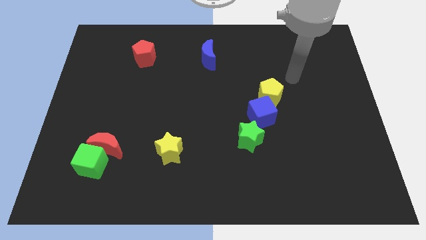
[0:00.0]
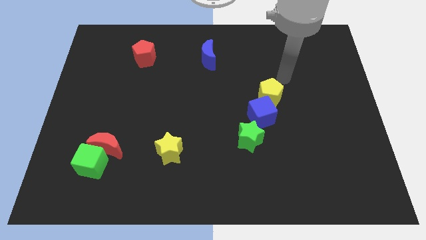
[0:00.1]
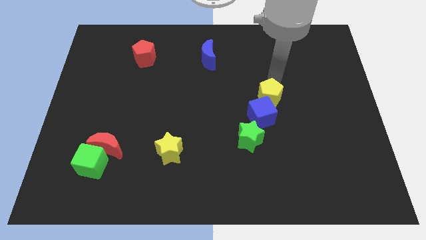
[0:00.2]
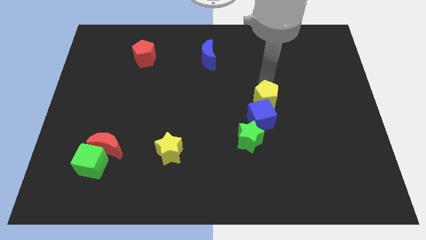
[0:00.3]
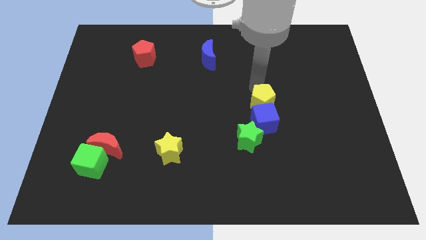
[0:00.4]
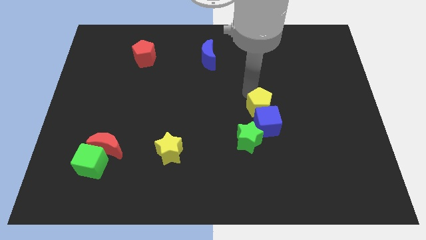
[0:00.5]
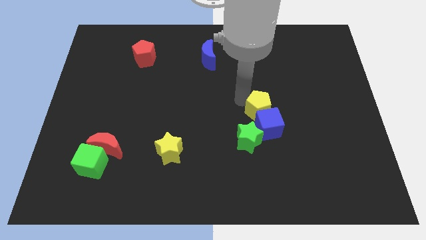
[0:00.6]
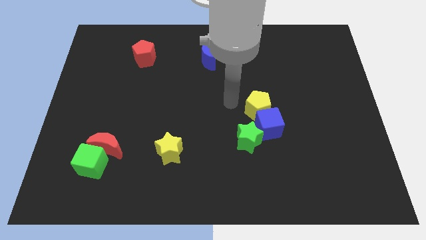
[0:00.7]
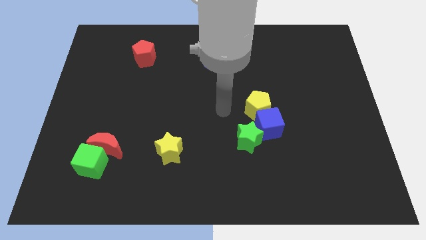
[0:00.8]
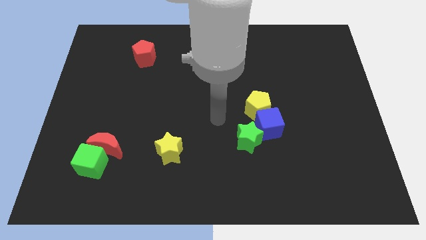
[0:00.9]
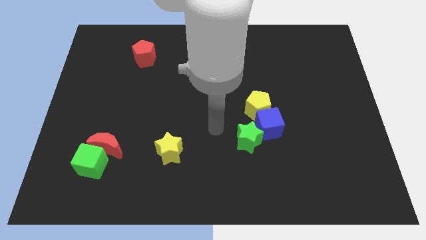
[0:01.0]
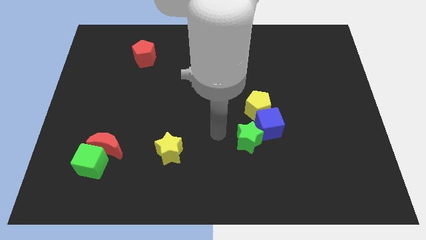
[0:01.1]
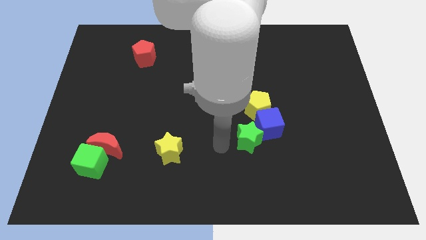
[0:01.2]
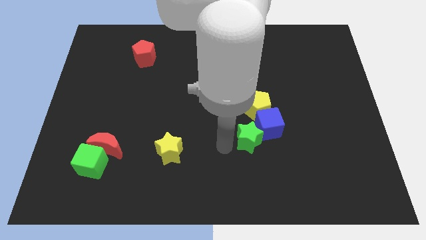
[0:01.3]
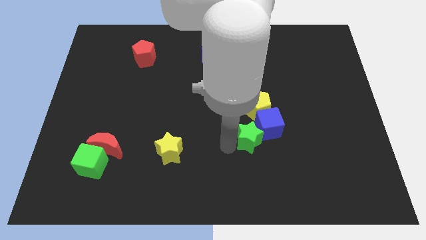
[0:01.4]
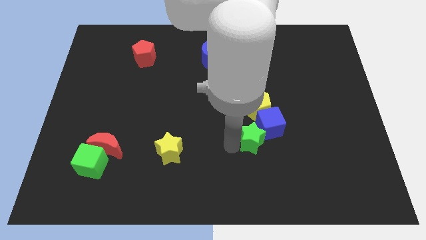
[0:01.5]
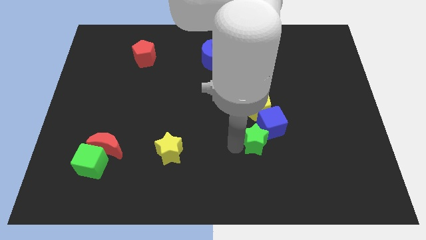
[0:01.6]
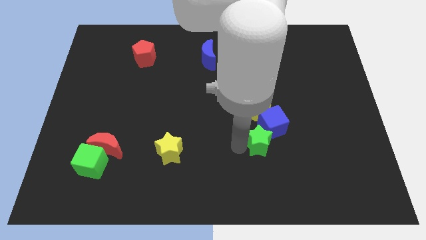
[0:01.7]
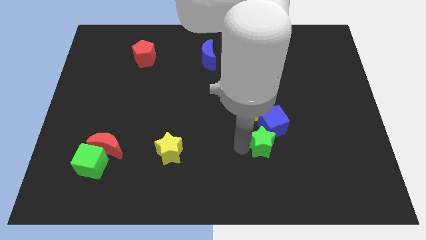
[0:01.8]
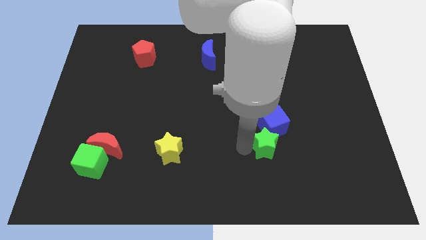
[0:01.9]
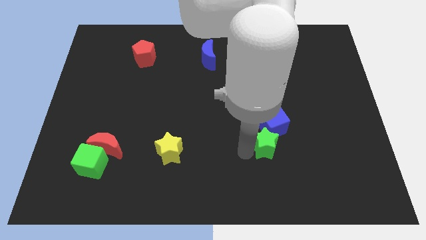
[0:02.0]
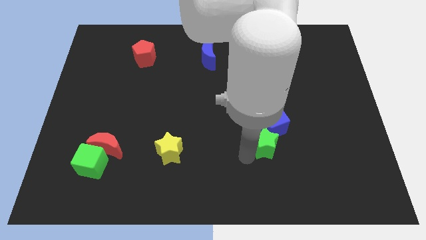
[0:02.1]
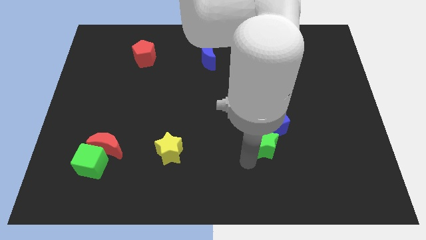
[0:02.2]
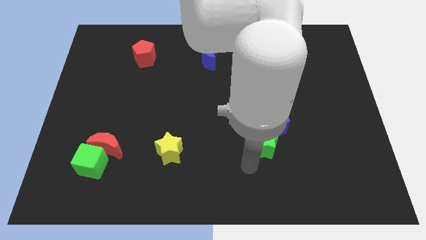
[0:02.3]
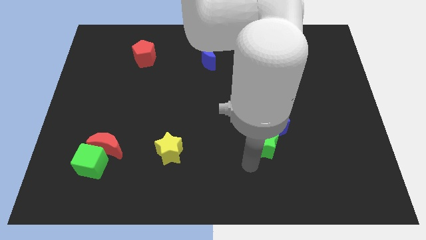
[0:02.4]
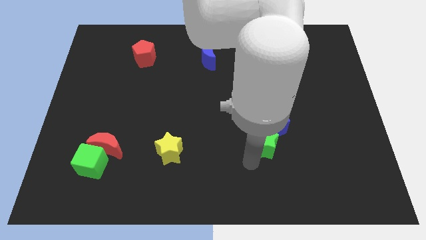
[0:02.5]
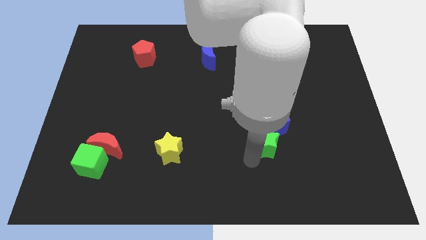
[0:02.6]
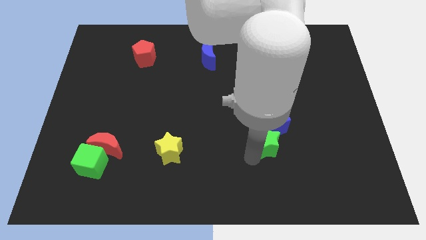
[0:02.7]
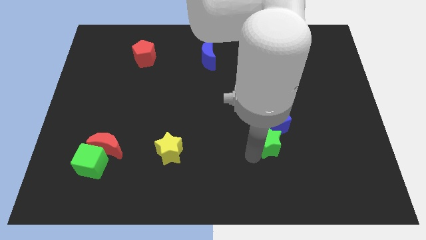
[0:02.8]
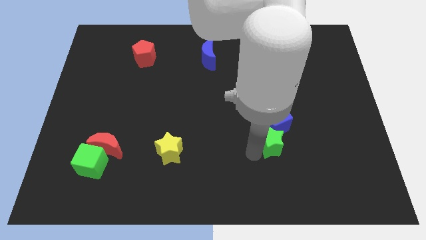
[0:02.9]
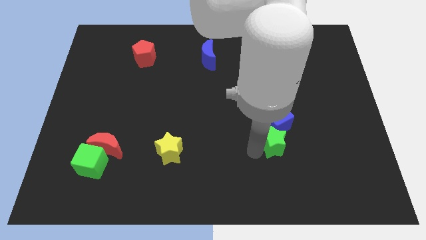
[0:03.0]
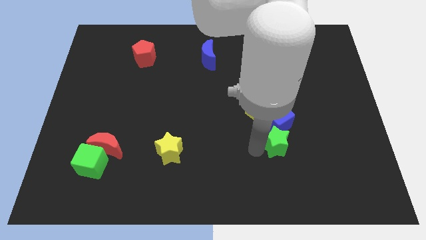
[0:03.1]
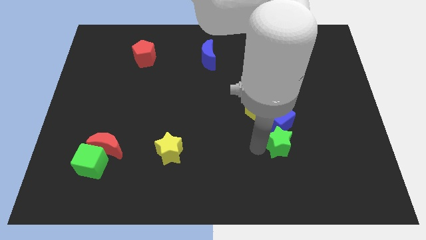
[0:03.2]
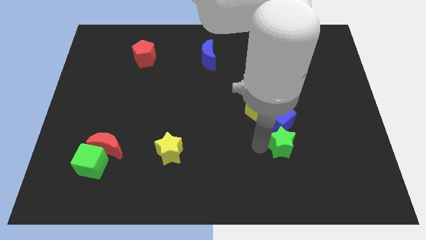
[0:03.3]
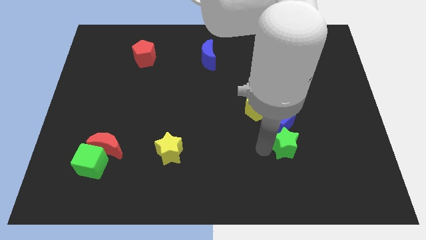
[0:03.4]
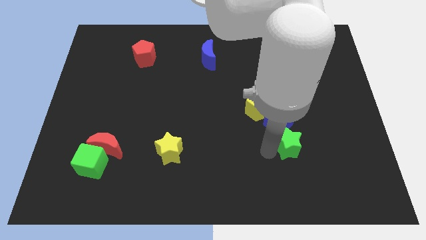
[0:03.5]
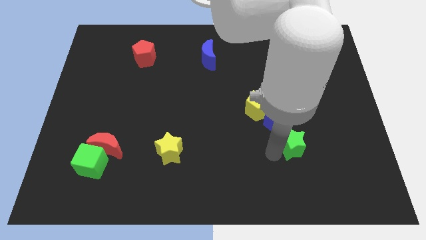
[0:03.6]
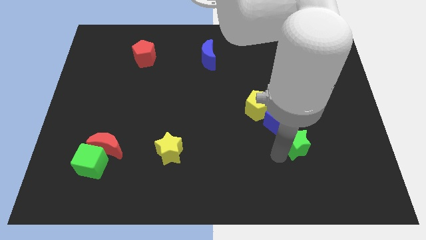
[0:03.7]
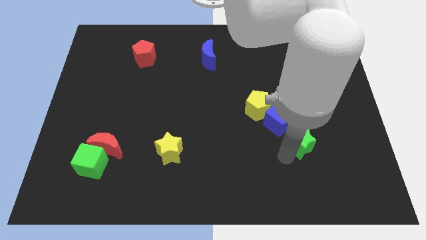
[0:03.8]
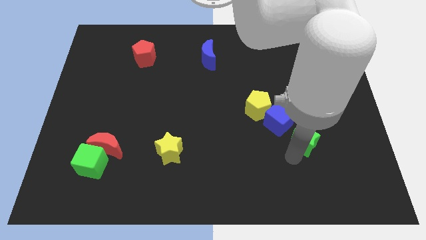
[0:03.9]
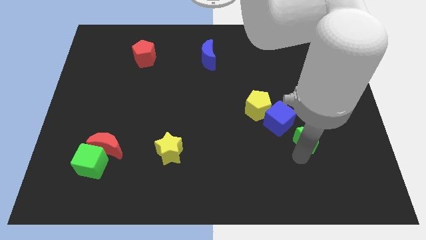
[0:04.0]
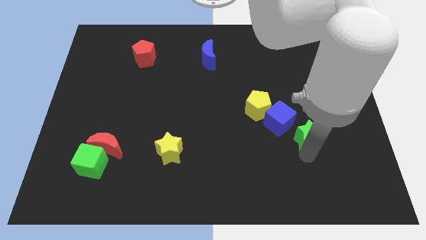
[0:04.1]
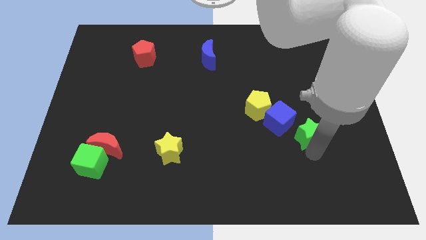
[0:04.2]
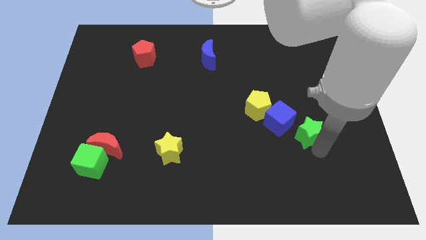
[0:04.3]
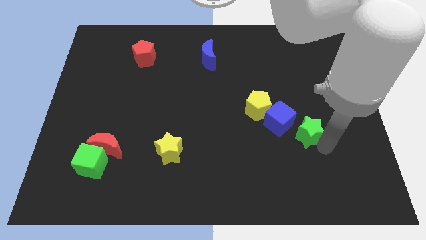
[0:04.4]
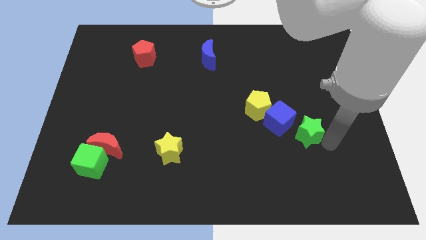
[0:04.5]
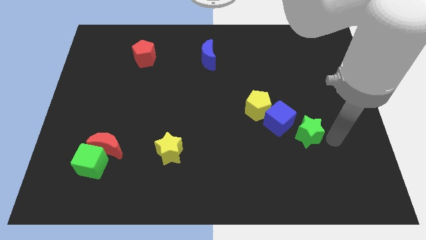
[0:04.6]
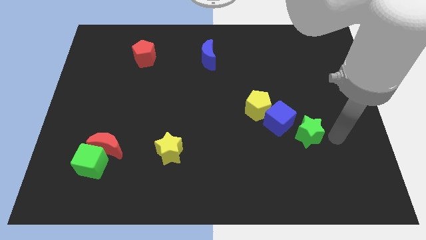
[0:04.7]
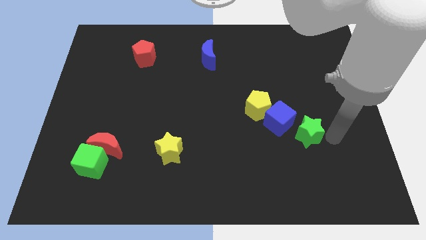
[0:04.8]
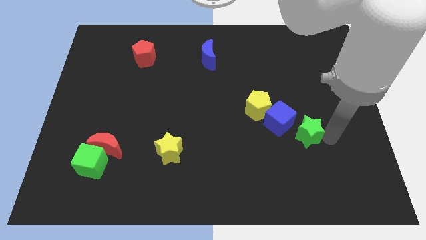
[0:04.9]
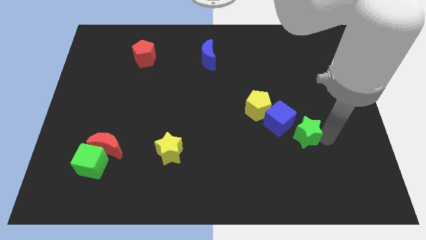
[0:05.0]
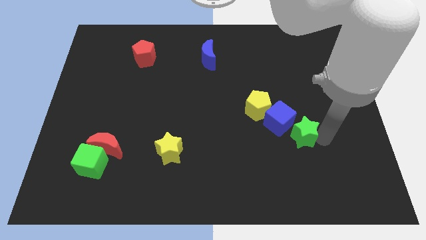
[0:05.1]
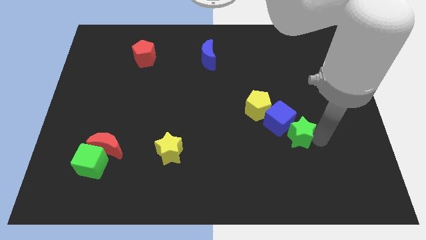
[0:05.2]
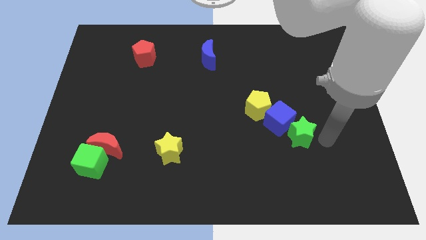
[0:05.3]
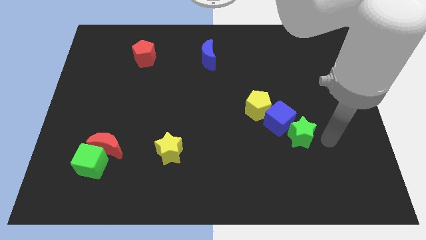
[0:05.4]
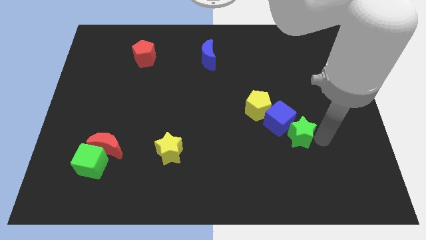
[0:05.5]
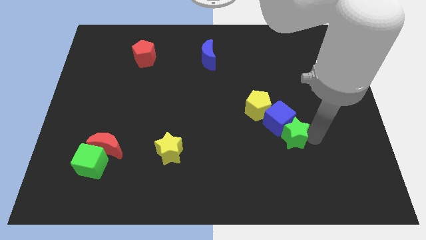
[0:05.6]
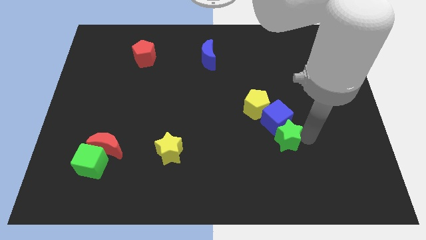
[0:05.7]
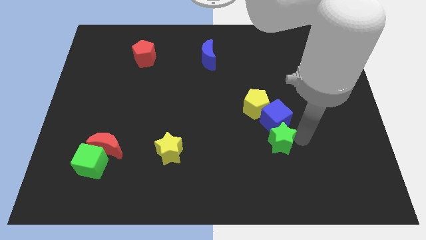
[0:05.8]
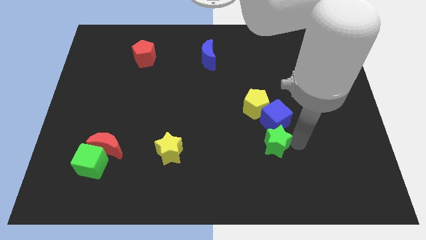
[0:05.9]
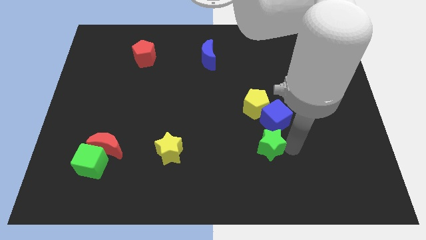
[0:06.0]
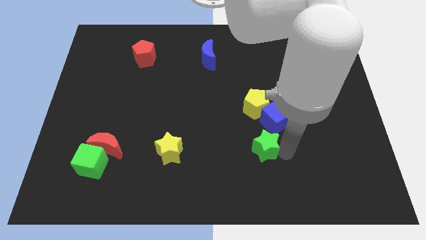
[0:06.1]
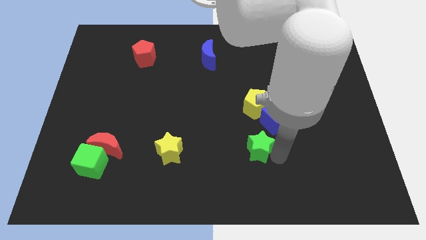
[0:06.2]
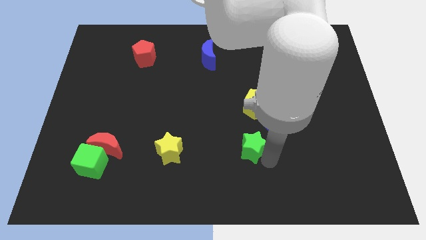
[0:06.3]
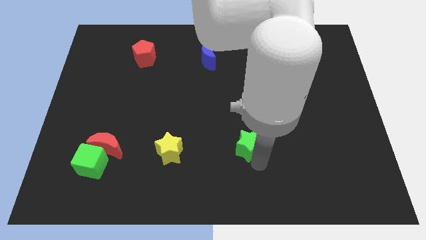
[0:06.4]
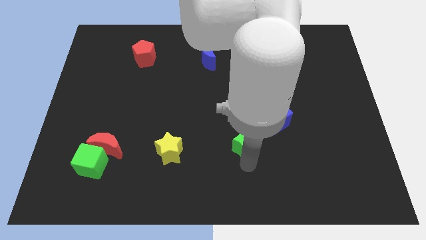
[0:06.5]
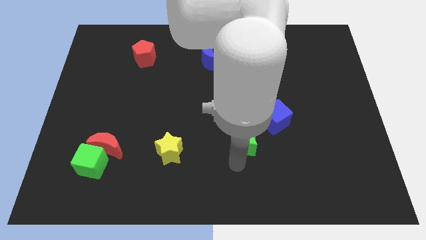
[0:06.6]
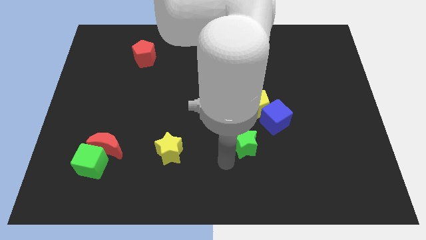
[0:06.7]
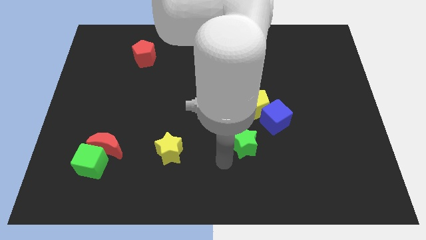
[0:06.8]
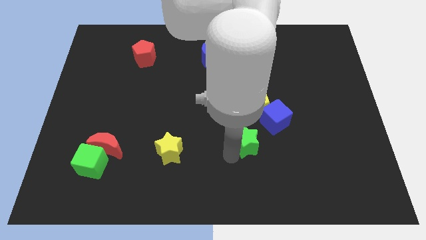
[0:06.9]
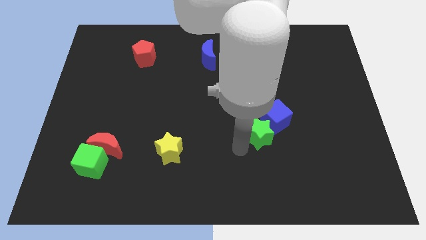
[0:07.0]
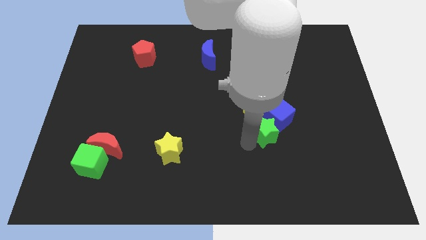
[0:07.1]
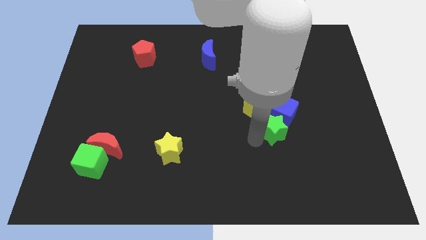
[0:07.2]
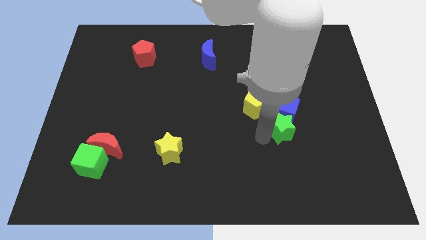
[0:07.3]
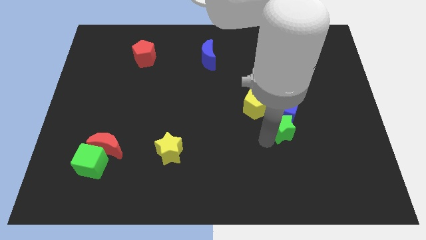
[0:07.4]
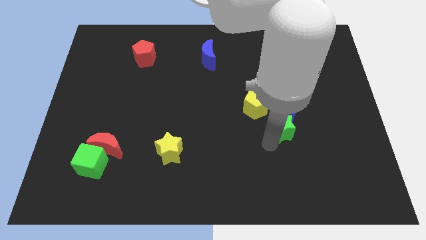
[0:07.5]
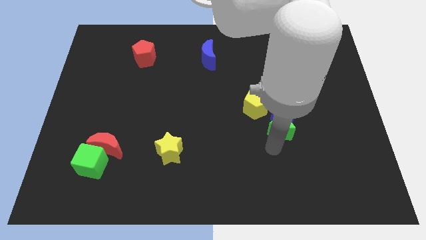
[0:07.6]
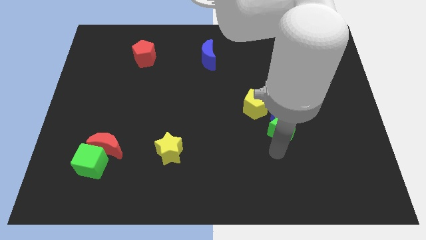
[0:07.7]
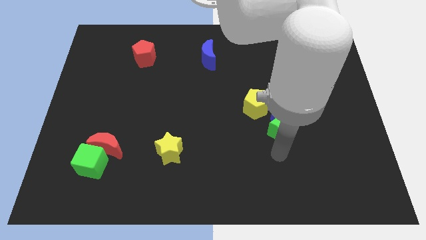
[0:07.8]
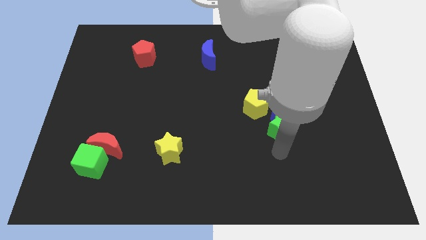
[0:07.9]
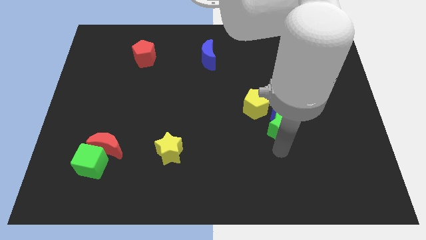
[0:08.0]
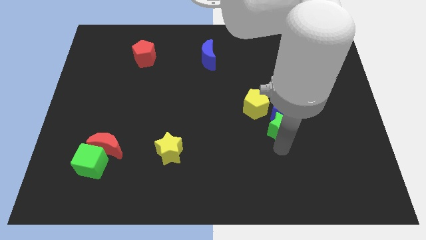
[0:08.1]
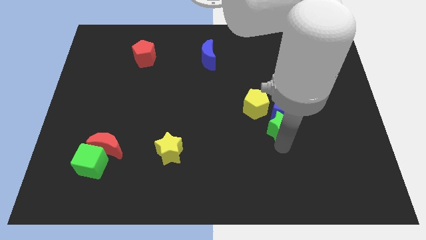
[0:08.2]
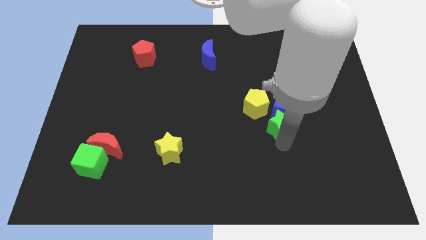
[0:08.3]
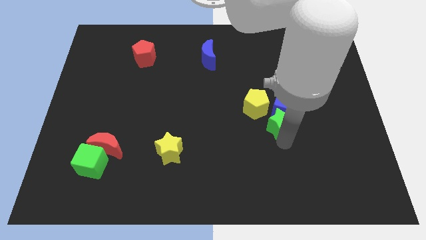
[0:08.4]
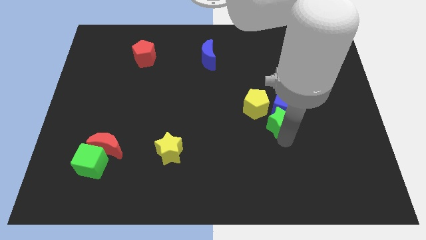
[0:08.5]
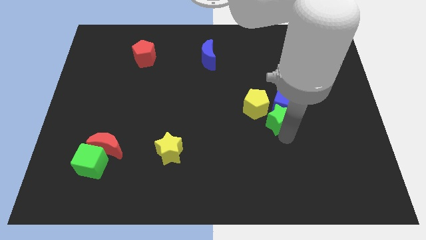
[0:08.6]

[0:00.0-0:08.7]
put the green star right of the yellow pentagon
